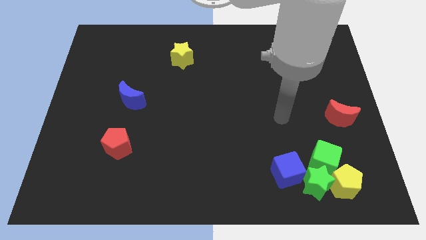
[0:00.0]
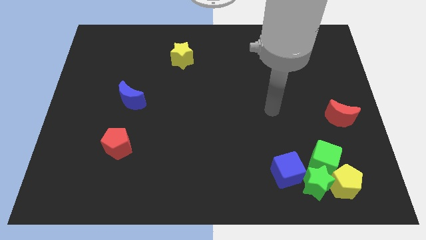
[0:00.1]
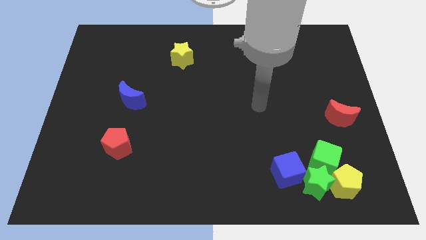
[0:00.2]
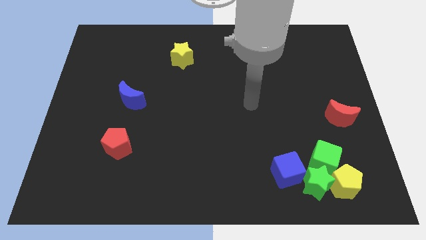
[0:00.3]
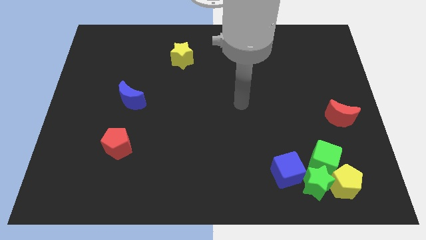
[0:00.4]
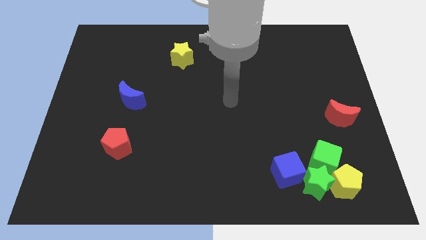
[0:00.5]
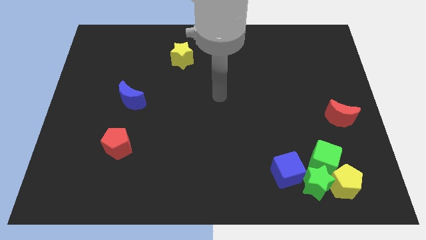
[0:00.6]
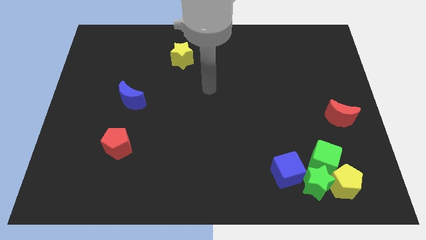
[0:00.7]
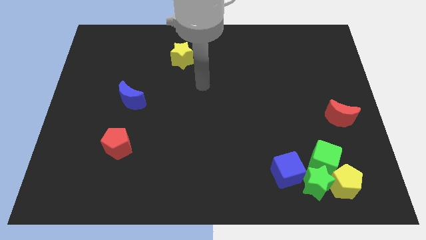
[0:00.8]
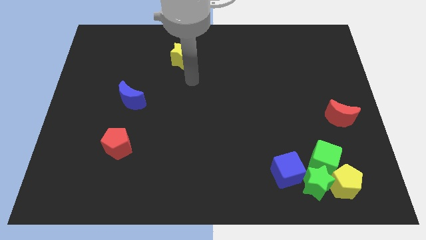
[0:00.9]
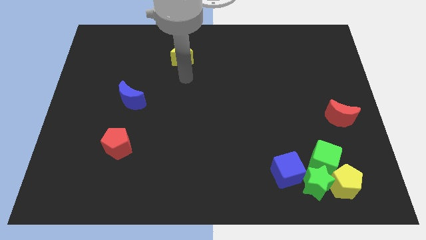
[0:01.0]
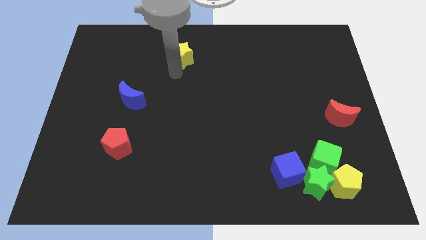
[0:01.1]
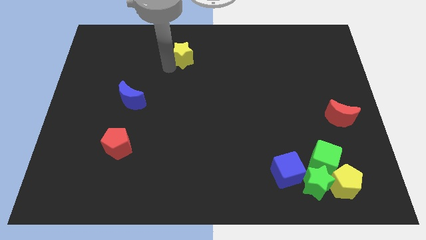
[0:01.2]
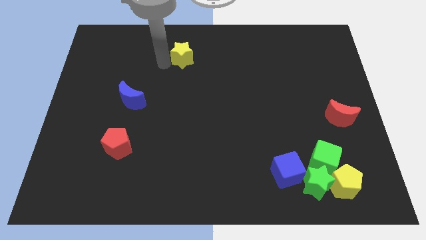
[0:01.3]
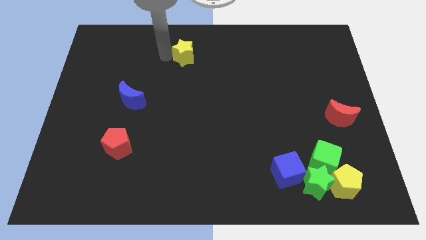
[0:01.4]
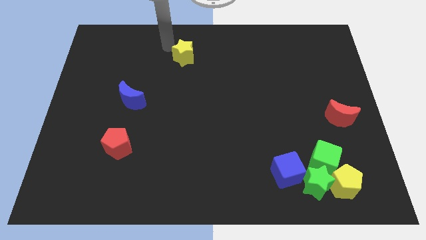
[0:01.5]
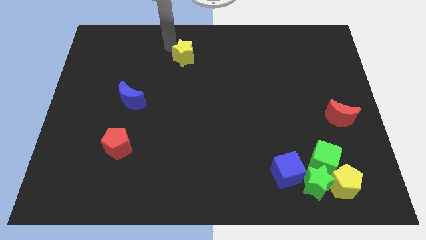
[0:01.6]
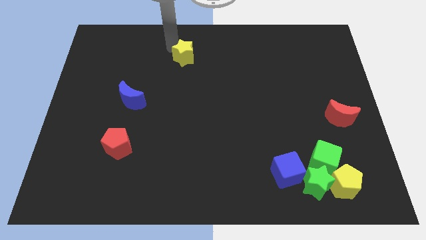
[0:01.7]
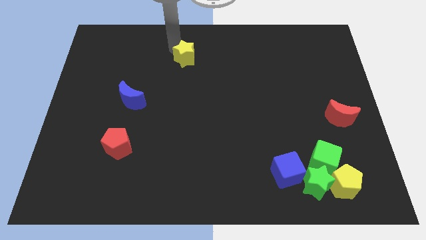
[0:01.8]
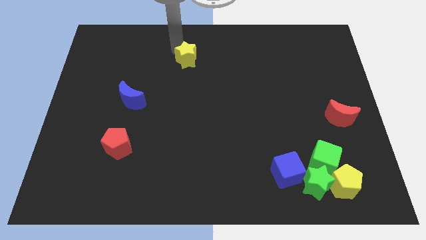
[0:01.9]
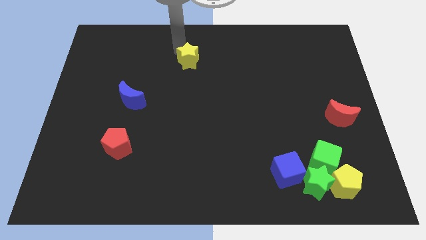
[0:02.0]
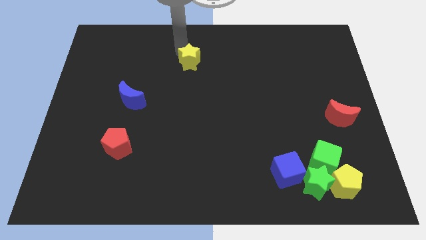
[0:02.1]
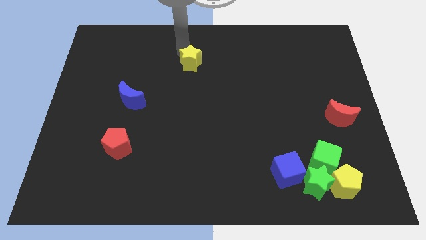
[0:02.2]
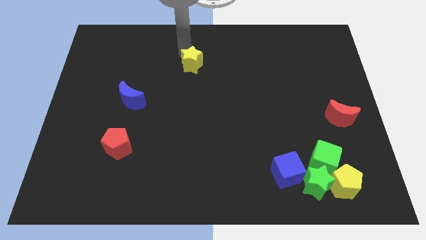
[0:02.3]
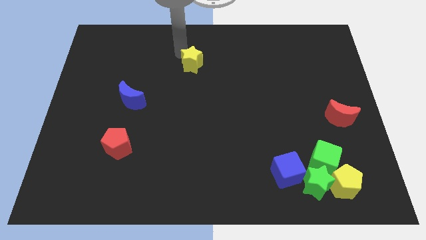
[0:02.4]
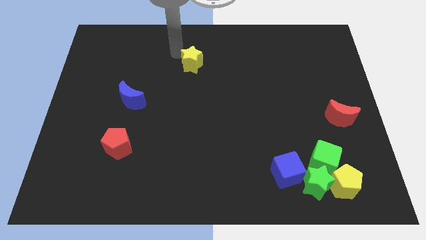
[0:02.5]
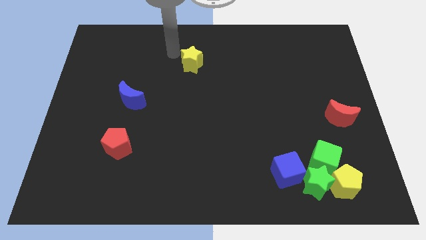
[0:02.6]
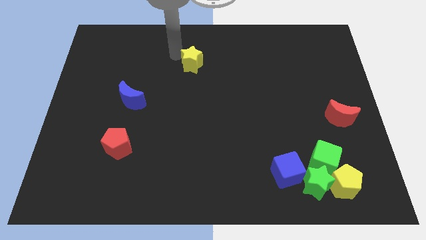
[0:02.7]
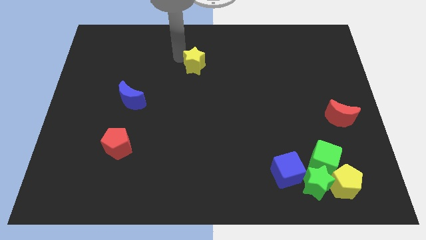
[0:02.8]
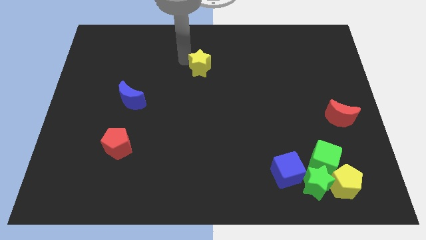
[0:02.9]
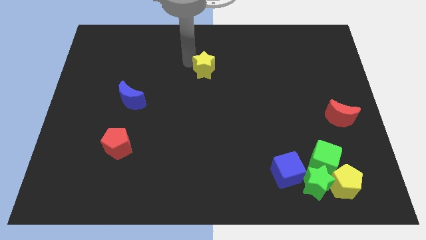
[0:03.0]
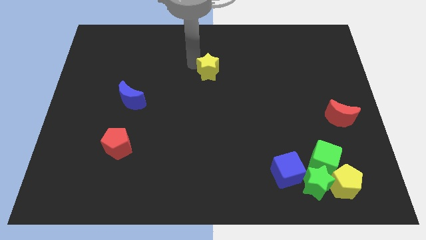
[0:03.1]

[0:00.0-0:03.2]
slightly move the yellow star downwards and right

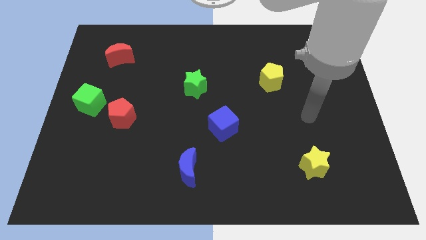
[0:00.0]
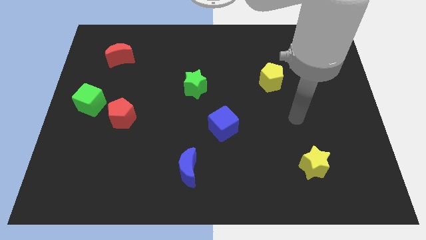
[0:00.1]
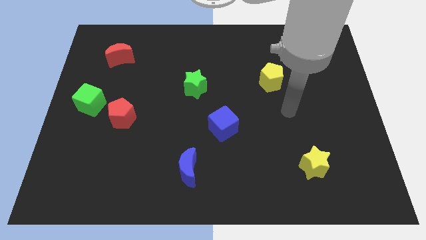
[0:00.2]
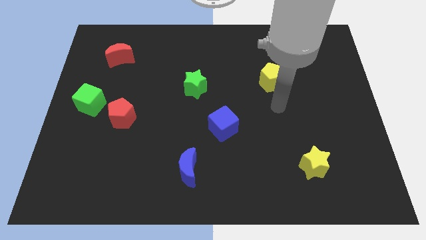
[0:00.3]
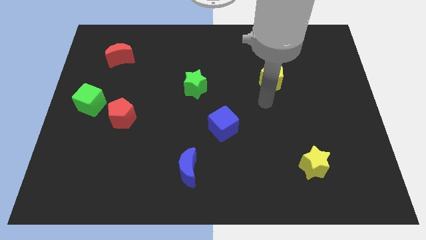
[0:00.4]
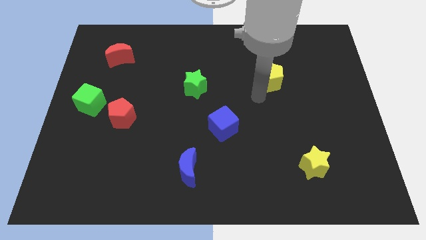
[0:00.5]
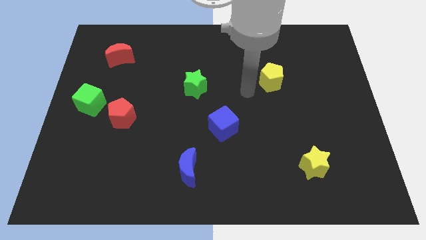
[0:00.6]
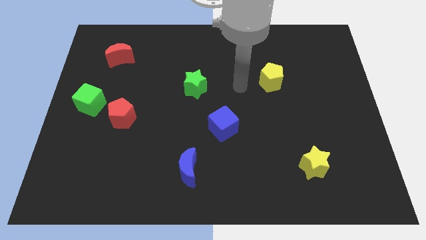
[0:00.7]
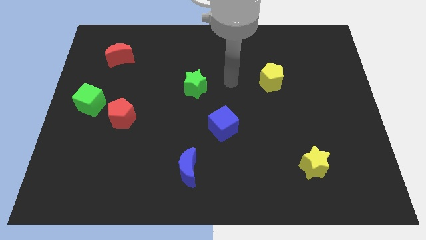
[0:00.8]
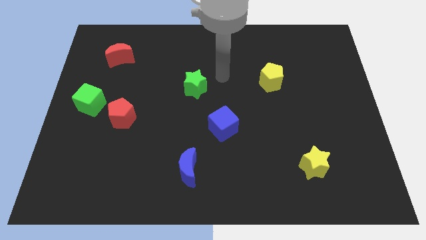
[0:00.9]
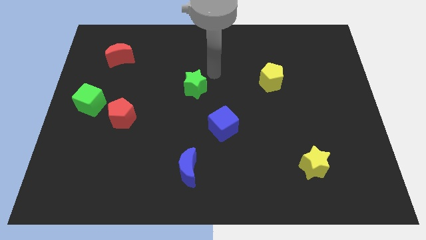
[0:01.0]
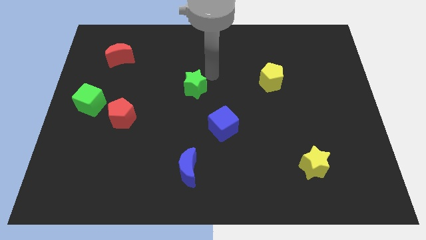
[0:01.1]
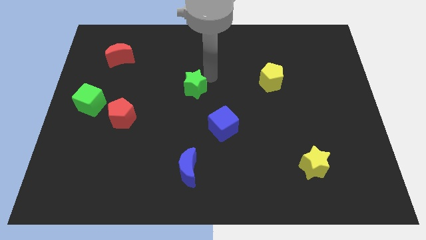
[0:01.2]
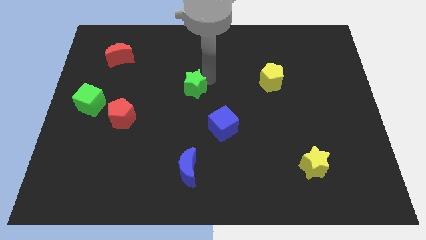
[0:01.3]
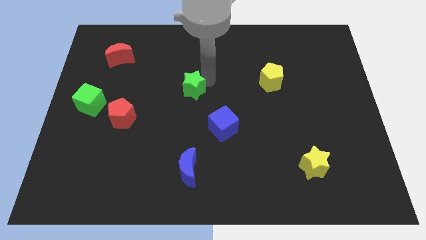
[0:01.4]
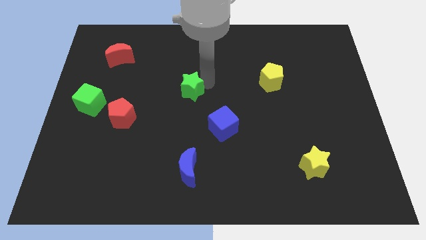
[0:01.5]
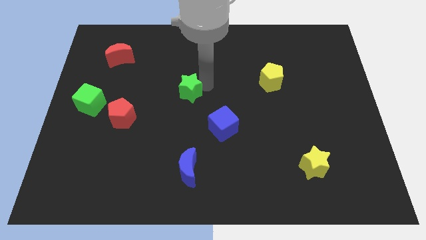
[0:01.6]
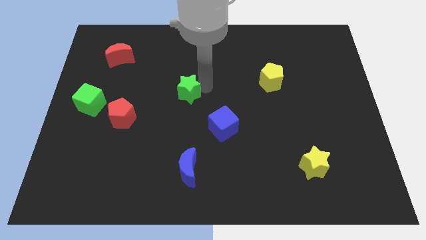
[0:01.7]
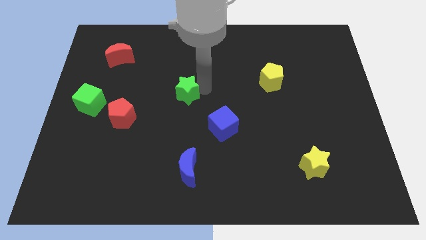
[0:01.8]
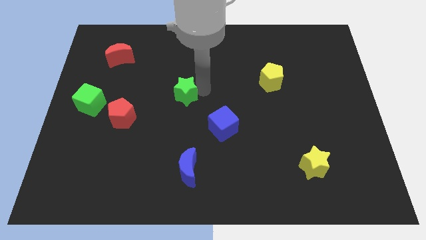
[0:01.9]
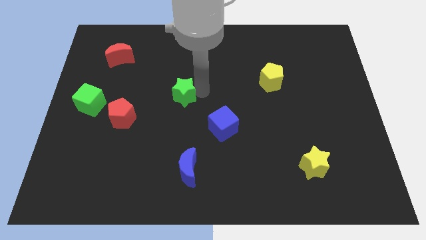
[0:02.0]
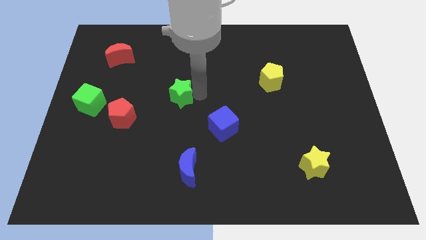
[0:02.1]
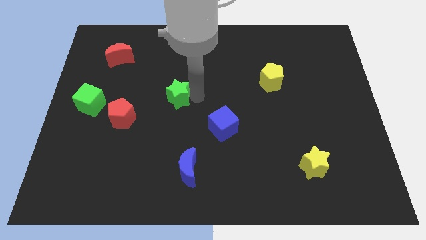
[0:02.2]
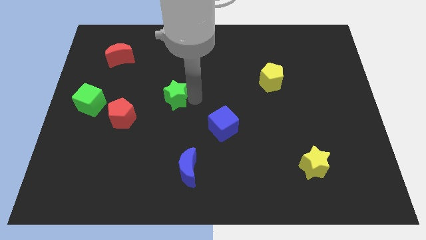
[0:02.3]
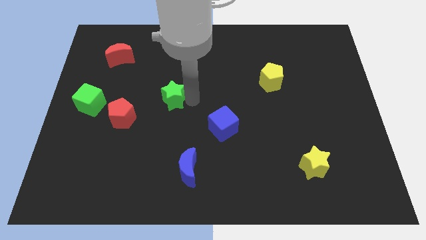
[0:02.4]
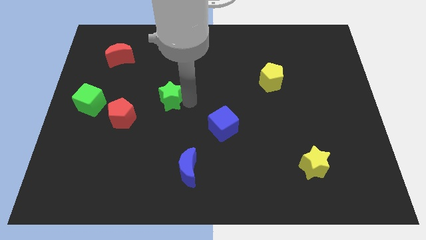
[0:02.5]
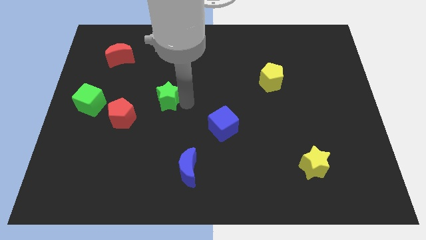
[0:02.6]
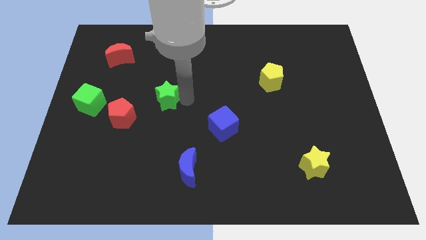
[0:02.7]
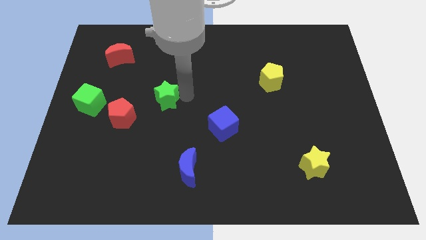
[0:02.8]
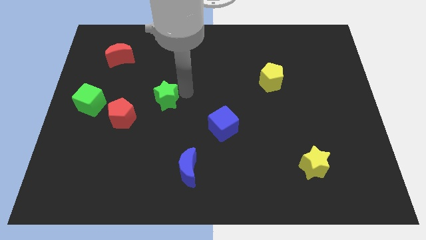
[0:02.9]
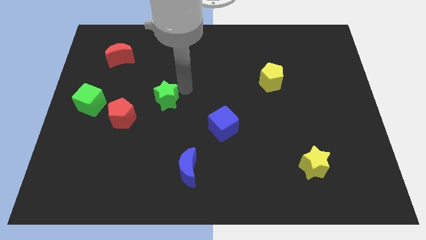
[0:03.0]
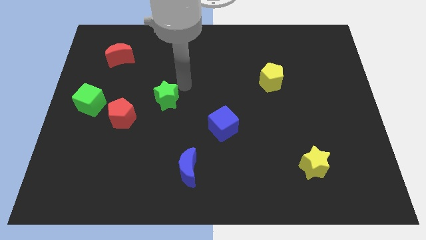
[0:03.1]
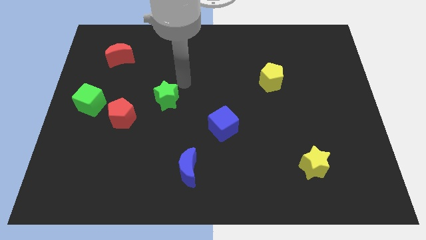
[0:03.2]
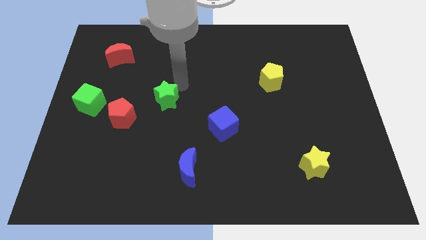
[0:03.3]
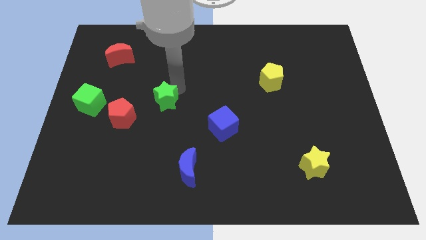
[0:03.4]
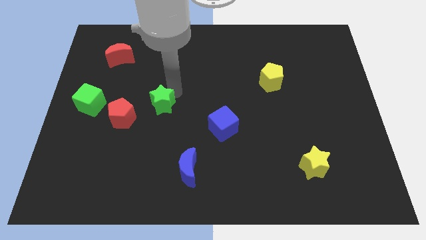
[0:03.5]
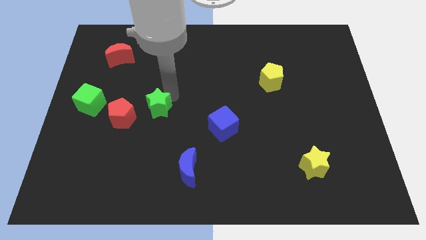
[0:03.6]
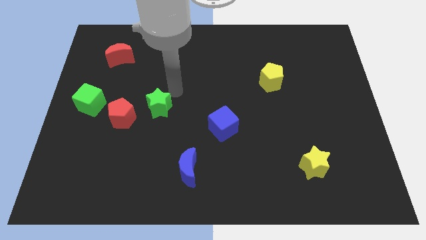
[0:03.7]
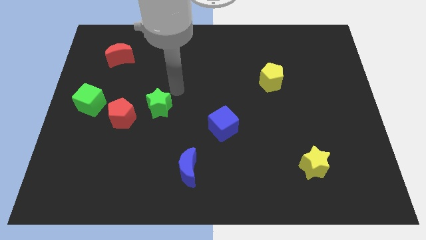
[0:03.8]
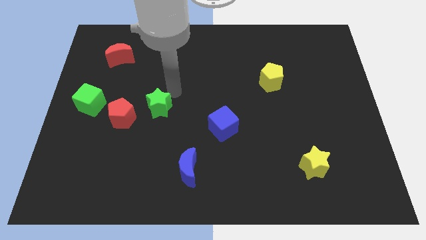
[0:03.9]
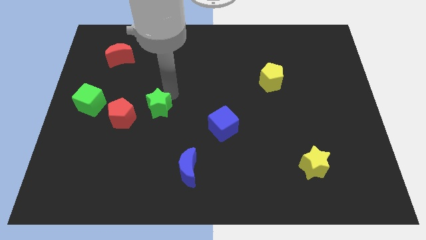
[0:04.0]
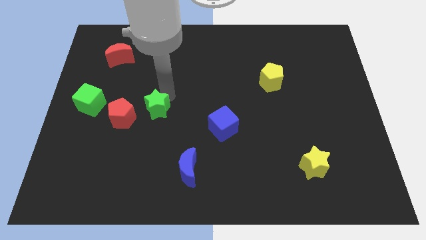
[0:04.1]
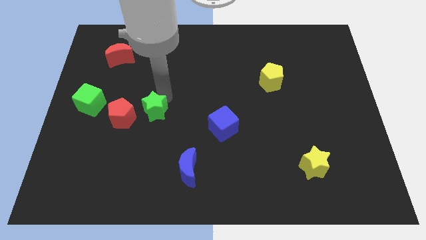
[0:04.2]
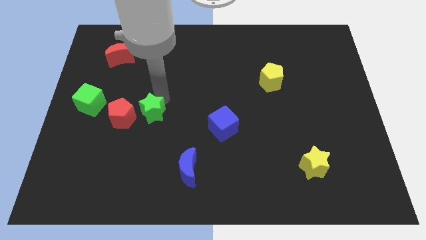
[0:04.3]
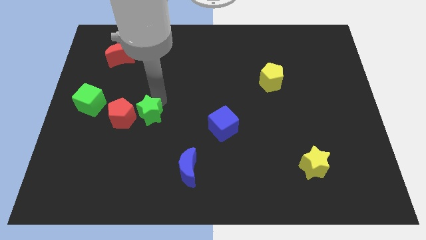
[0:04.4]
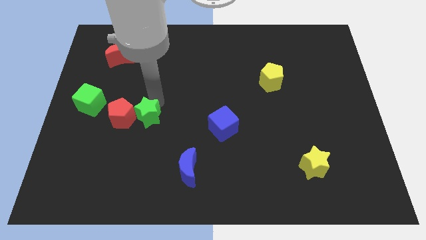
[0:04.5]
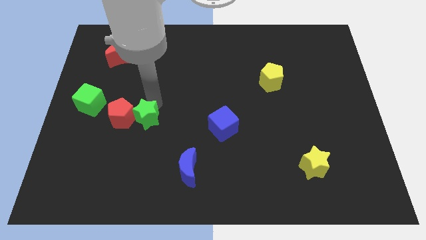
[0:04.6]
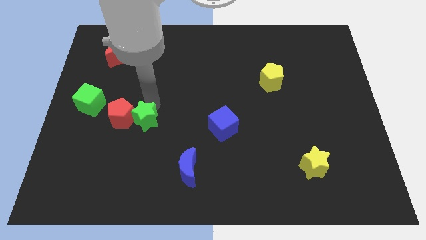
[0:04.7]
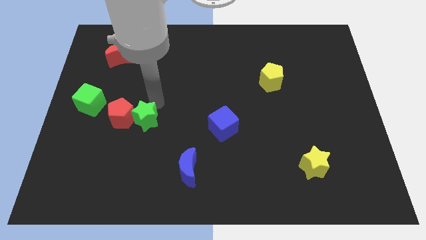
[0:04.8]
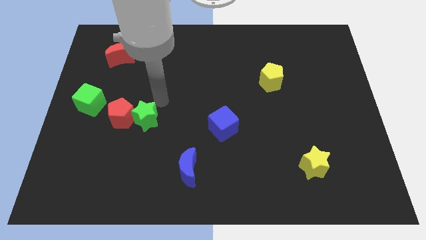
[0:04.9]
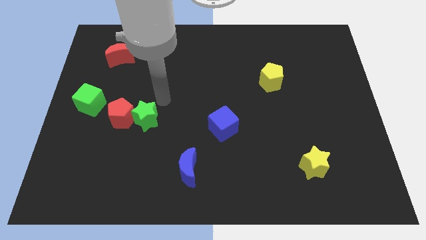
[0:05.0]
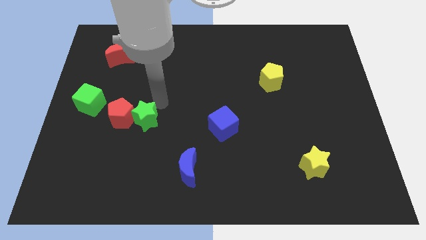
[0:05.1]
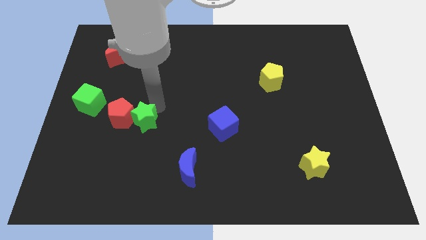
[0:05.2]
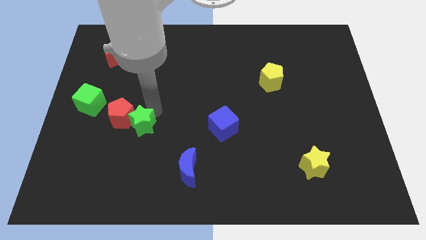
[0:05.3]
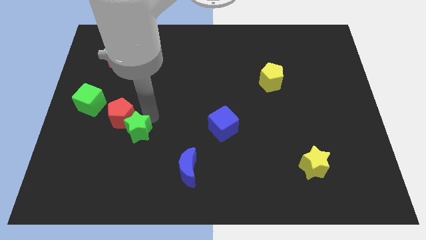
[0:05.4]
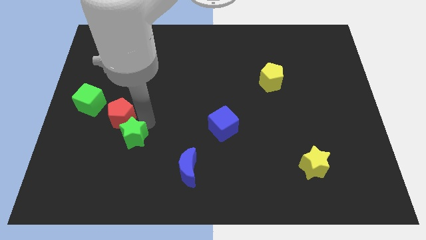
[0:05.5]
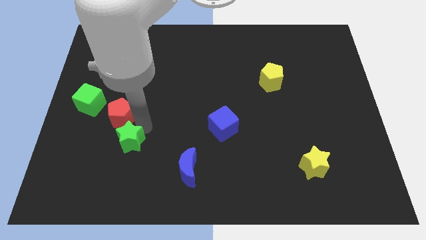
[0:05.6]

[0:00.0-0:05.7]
move the green star downwards and then left
